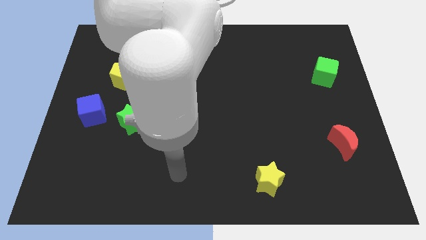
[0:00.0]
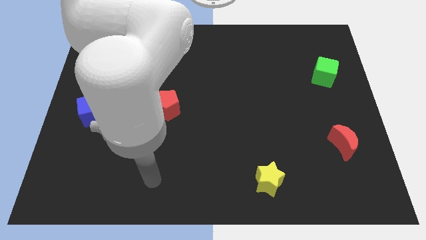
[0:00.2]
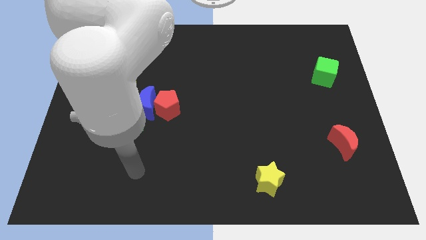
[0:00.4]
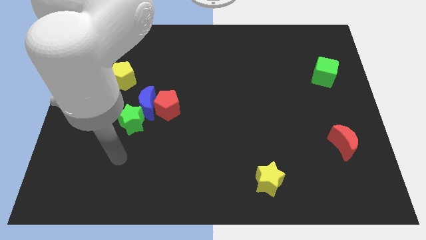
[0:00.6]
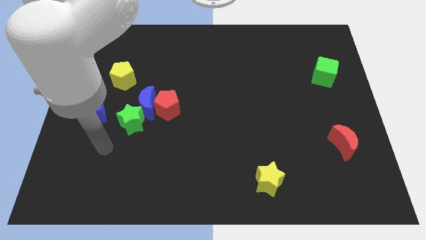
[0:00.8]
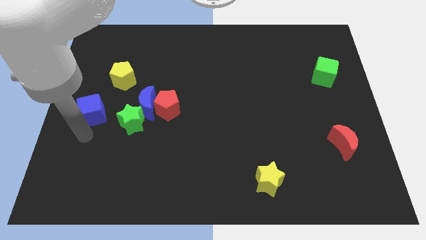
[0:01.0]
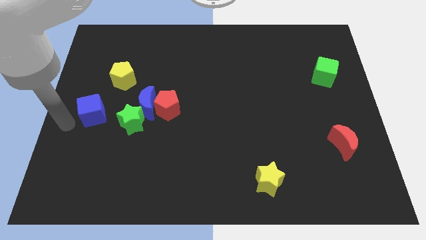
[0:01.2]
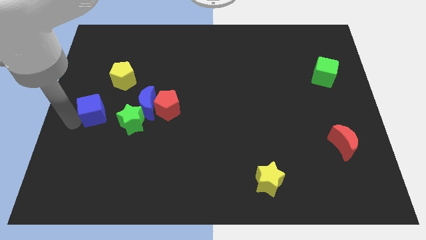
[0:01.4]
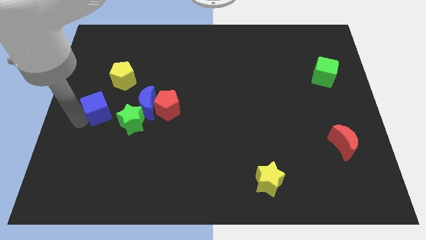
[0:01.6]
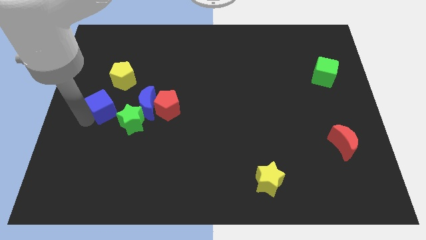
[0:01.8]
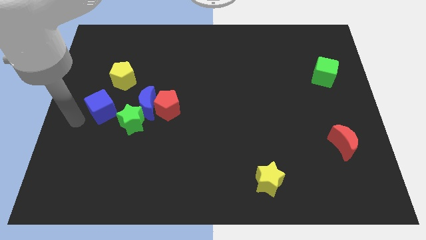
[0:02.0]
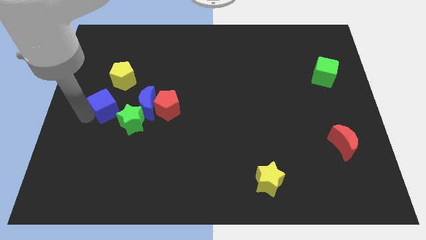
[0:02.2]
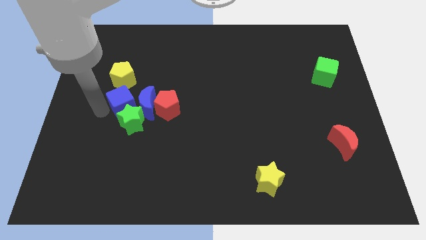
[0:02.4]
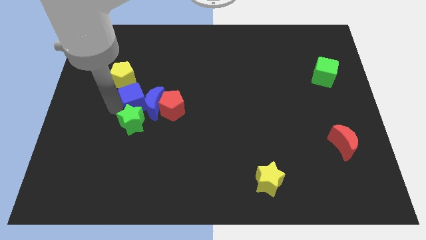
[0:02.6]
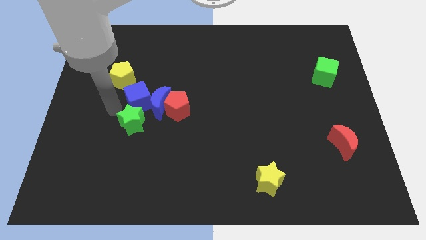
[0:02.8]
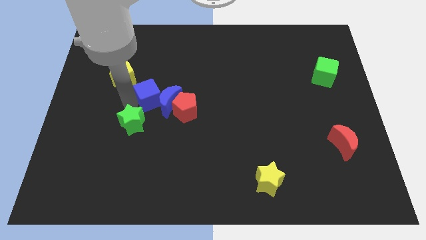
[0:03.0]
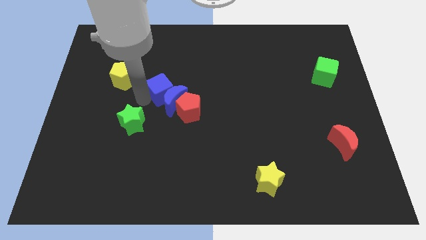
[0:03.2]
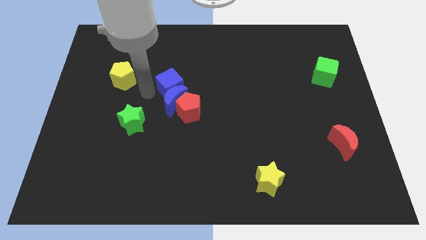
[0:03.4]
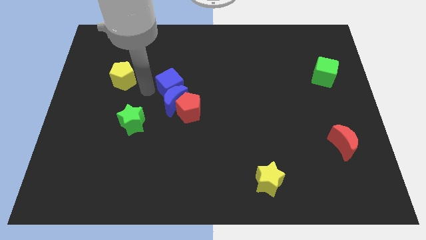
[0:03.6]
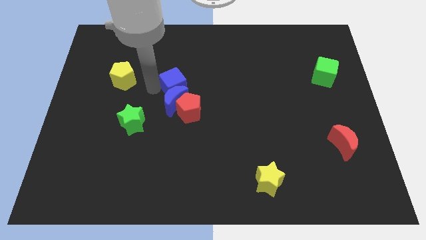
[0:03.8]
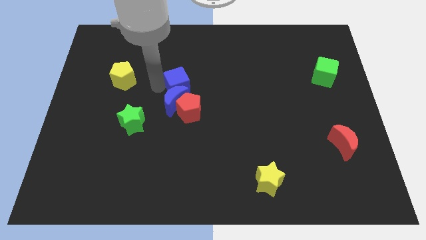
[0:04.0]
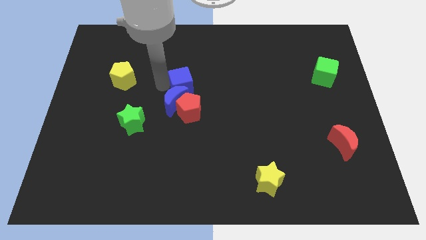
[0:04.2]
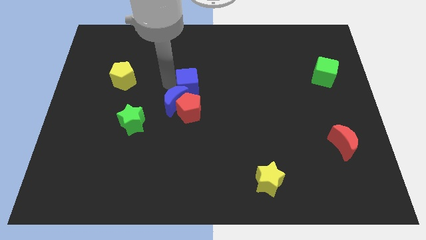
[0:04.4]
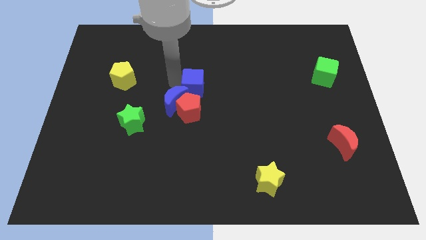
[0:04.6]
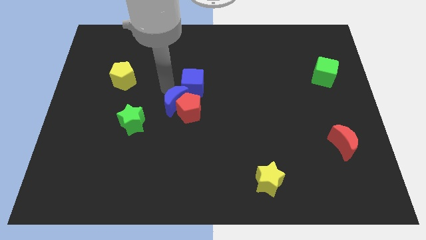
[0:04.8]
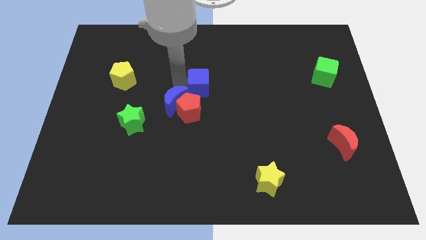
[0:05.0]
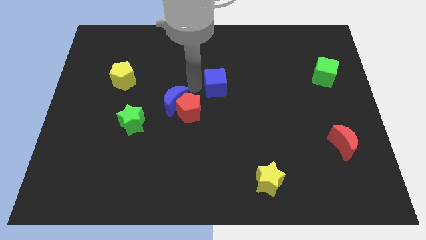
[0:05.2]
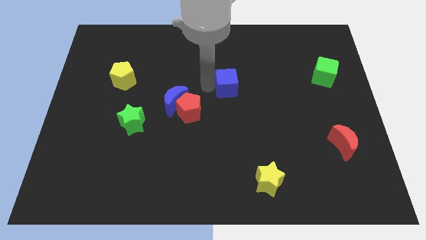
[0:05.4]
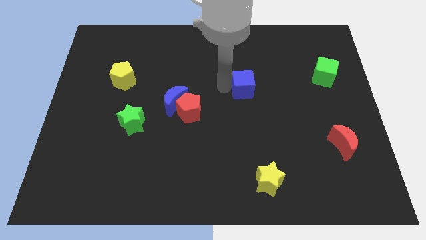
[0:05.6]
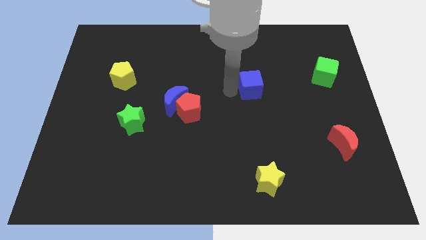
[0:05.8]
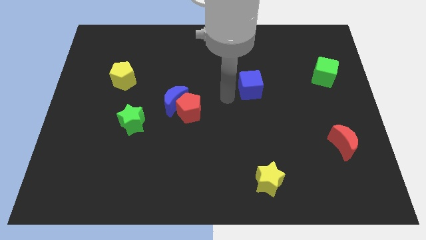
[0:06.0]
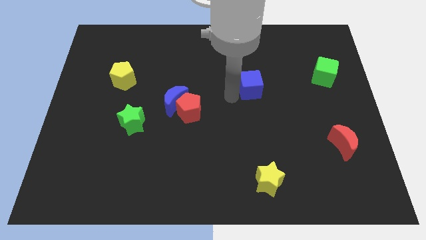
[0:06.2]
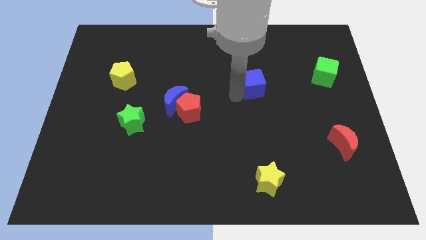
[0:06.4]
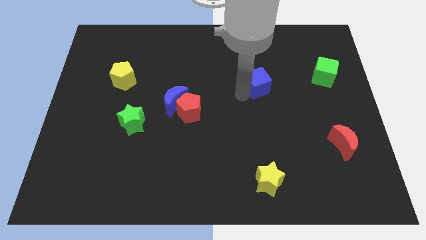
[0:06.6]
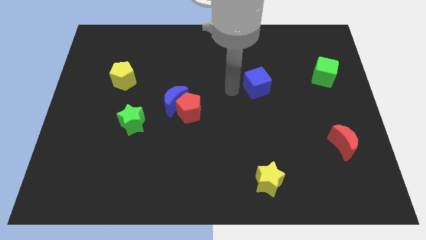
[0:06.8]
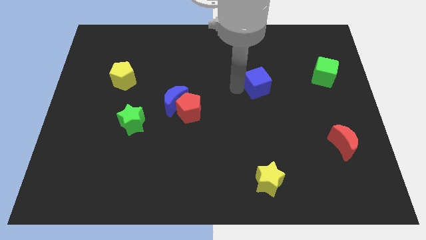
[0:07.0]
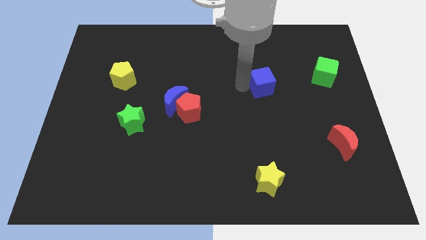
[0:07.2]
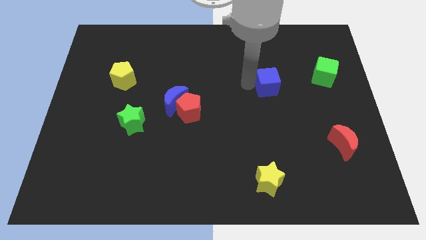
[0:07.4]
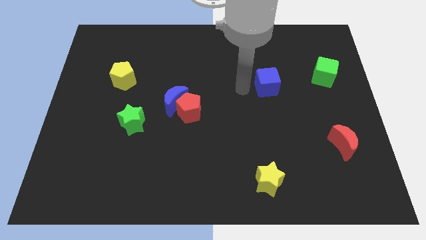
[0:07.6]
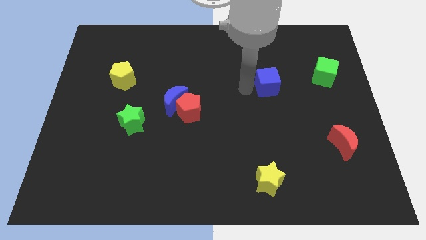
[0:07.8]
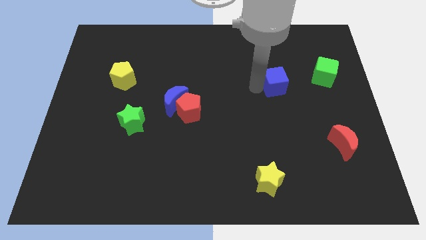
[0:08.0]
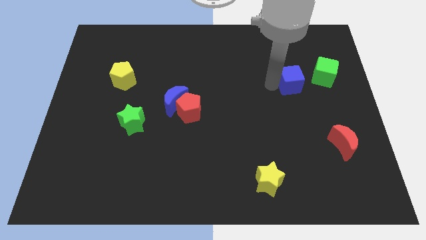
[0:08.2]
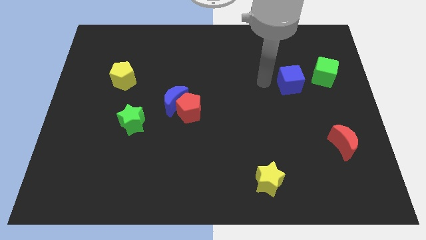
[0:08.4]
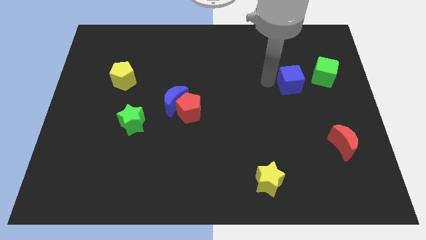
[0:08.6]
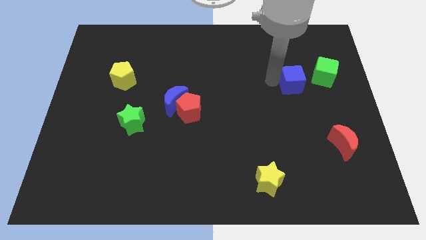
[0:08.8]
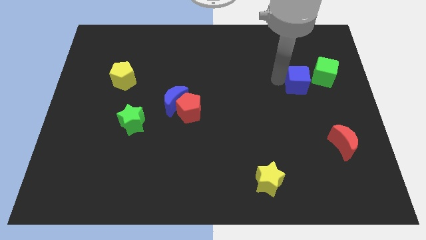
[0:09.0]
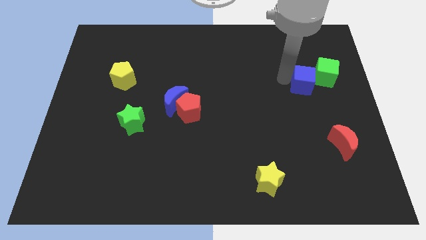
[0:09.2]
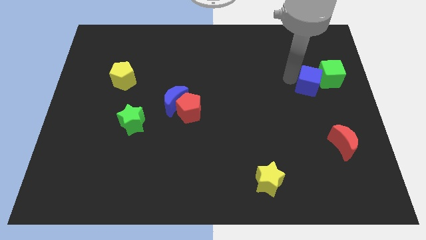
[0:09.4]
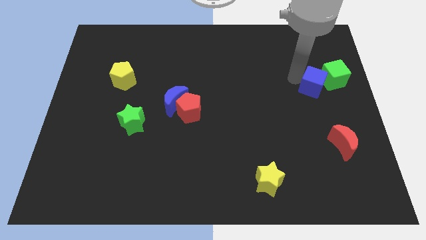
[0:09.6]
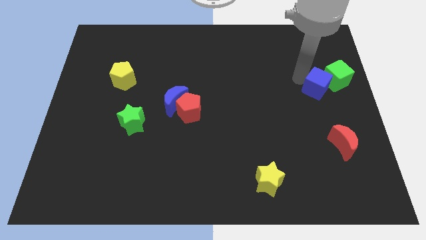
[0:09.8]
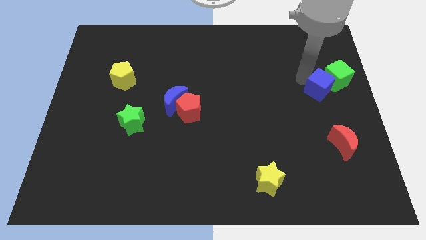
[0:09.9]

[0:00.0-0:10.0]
push the blue cube to the center right

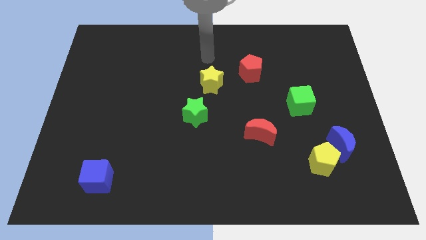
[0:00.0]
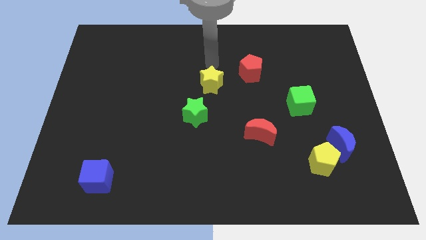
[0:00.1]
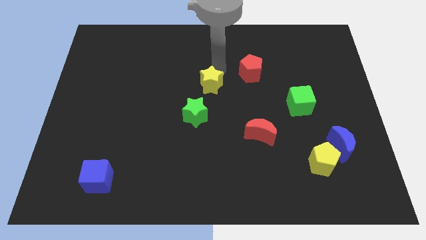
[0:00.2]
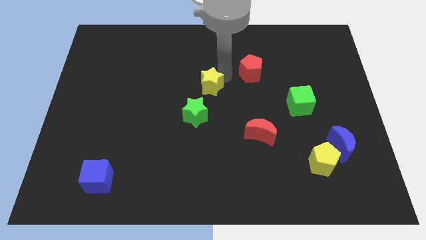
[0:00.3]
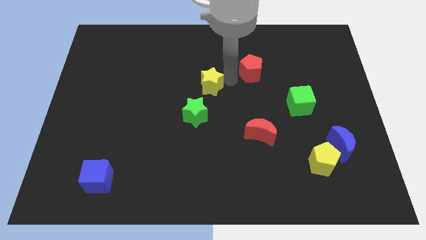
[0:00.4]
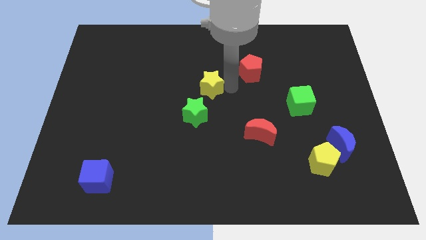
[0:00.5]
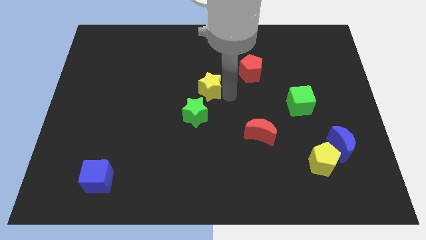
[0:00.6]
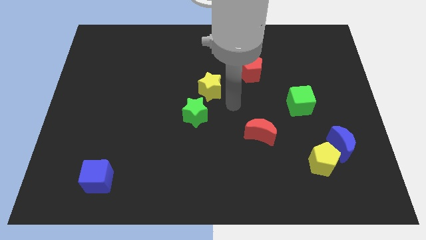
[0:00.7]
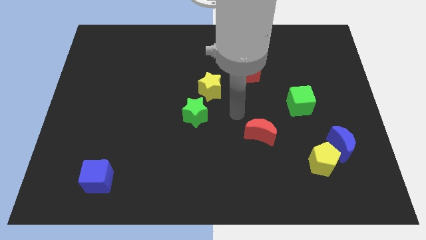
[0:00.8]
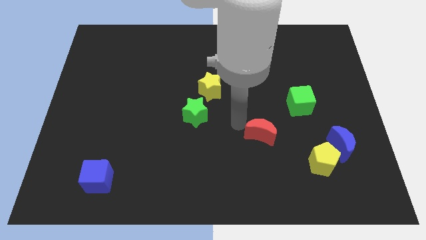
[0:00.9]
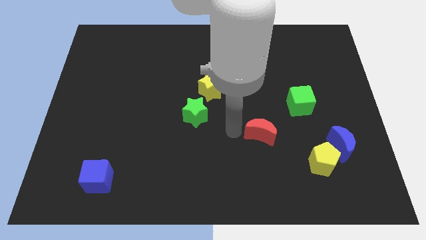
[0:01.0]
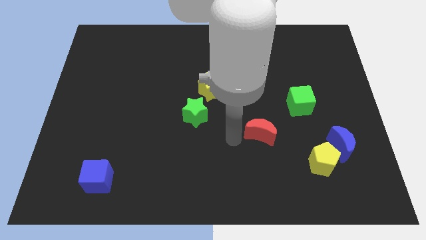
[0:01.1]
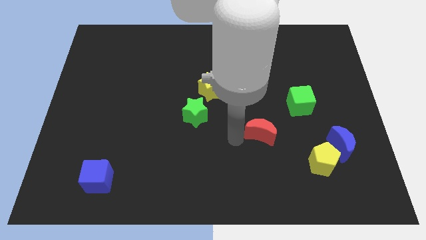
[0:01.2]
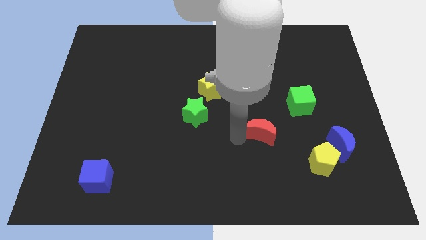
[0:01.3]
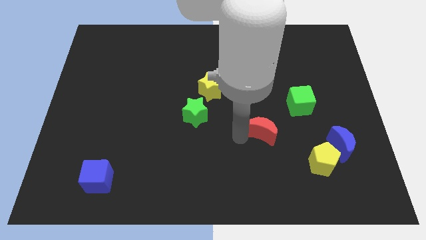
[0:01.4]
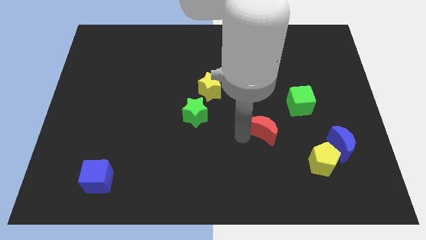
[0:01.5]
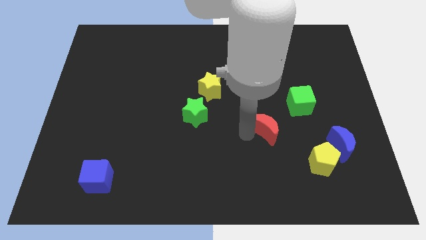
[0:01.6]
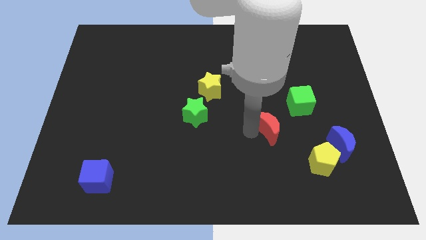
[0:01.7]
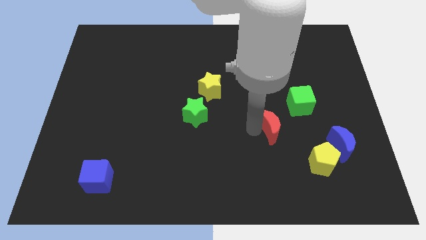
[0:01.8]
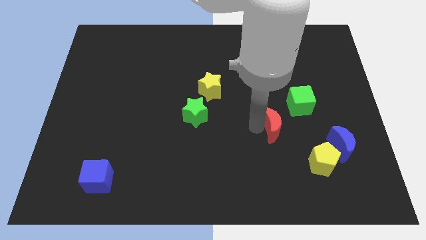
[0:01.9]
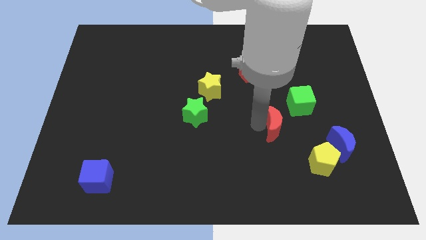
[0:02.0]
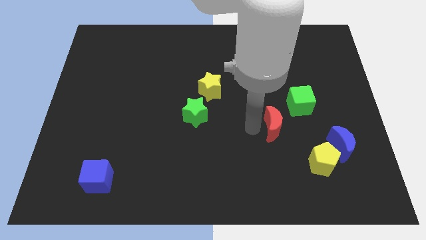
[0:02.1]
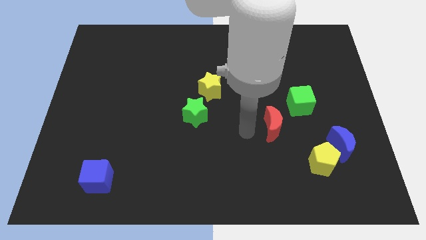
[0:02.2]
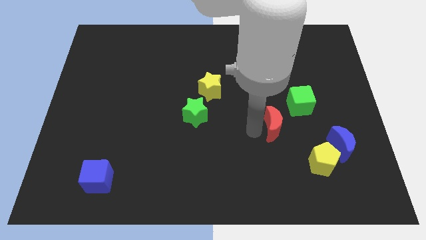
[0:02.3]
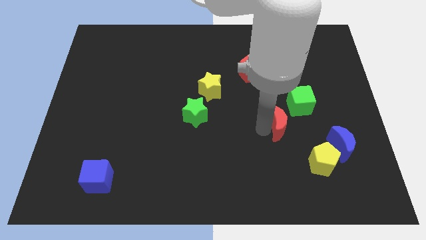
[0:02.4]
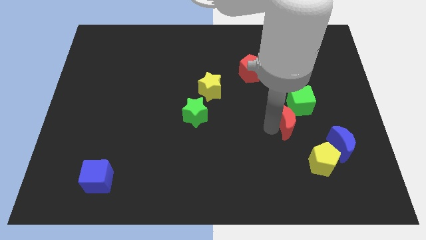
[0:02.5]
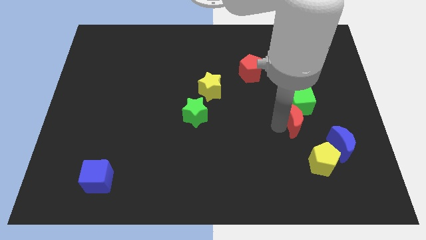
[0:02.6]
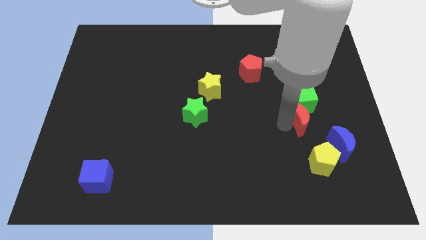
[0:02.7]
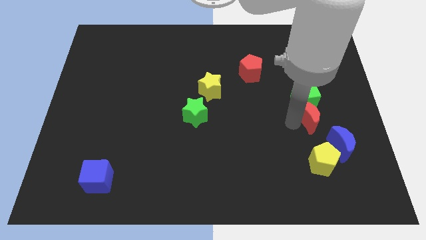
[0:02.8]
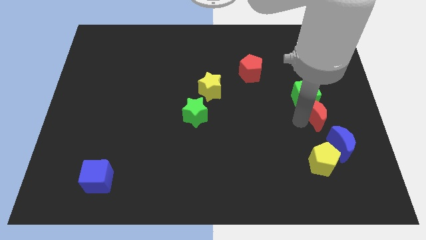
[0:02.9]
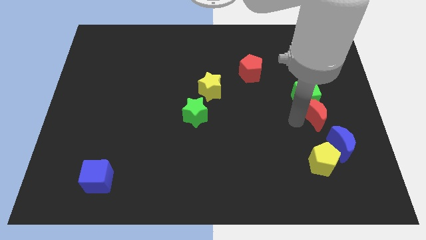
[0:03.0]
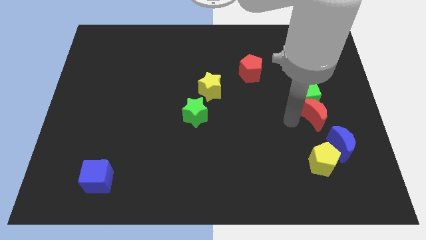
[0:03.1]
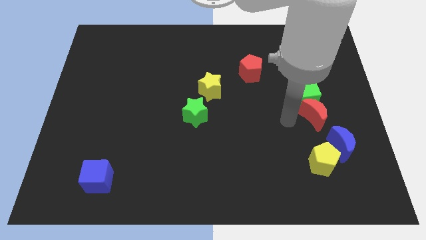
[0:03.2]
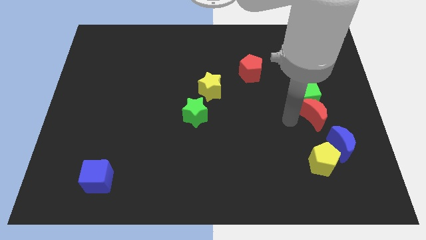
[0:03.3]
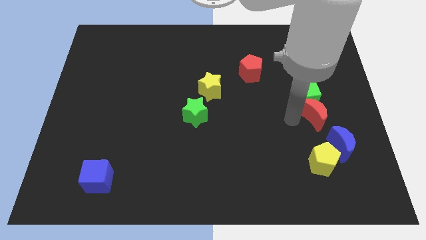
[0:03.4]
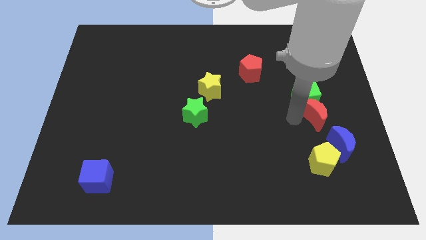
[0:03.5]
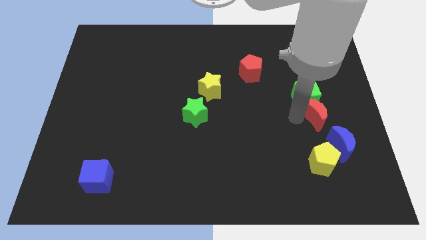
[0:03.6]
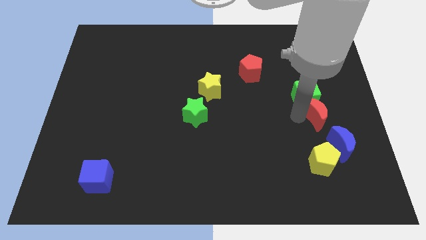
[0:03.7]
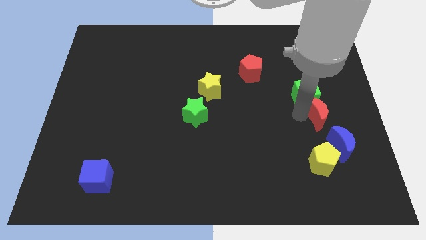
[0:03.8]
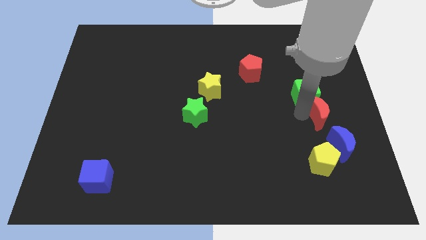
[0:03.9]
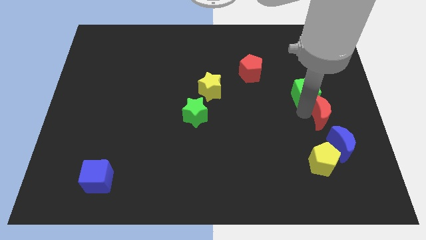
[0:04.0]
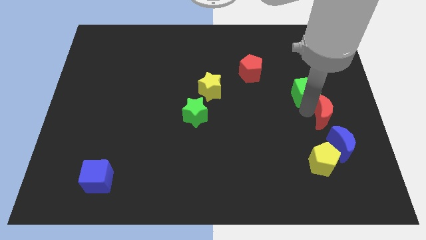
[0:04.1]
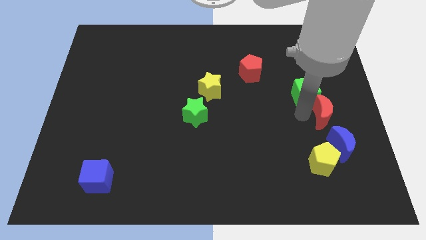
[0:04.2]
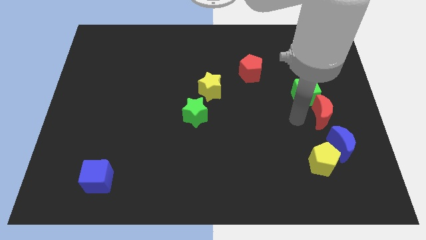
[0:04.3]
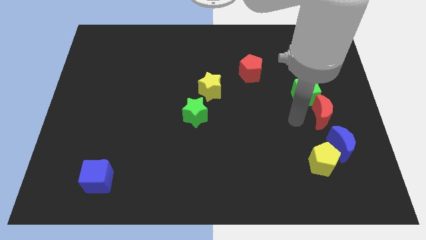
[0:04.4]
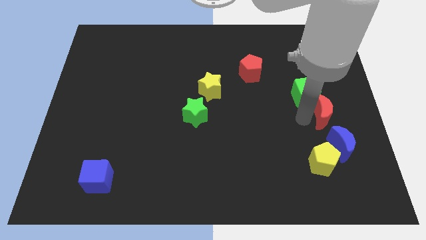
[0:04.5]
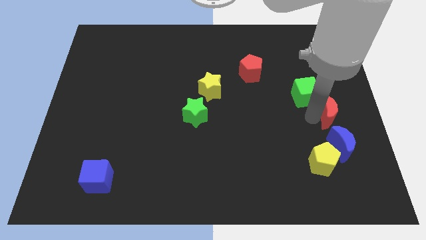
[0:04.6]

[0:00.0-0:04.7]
slide the red moon to the right side
